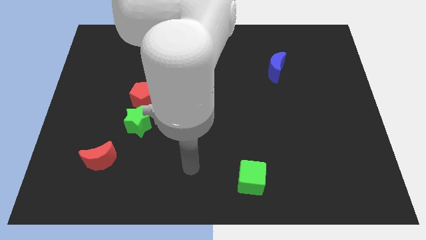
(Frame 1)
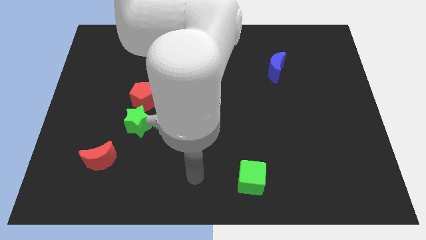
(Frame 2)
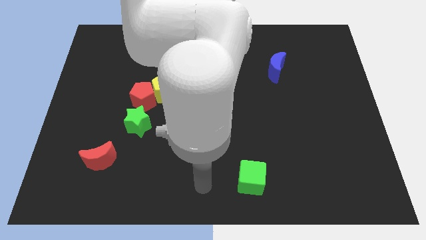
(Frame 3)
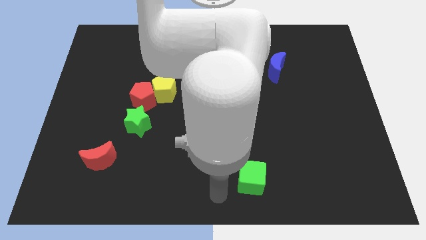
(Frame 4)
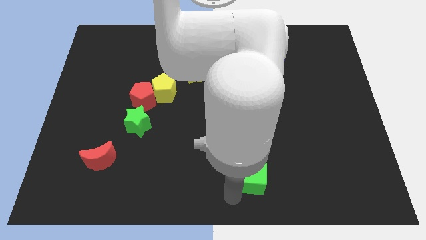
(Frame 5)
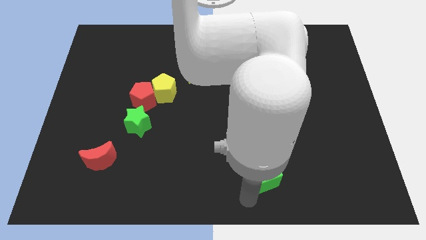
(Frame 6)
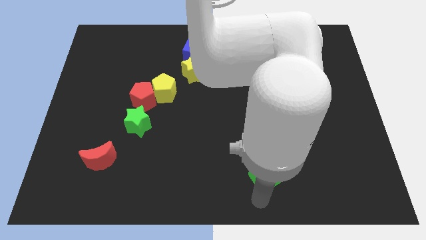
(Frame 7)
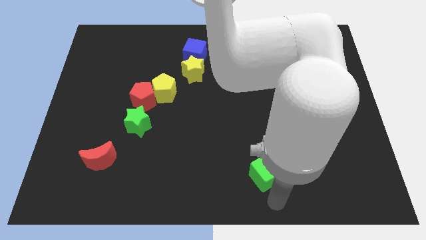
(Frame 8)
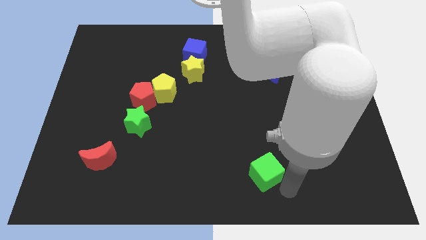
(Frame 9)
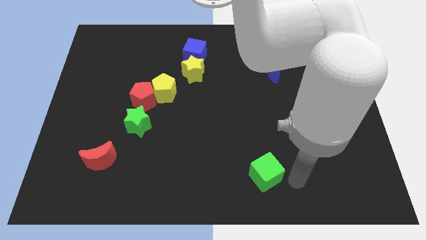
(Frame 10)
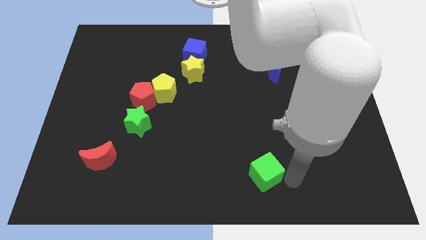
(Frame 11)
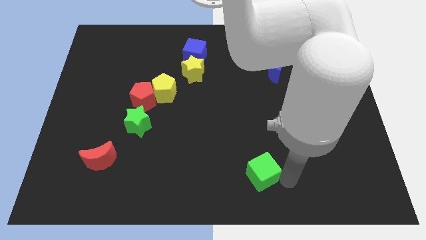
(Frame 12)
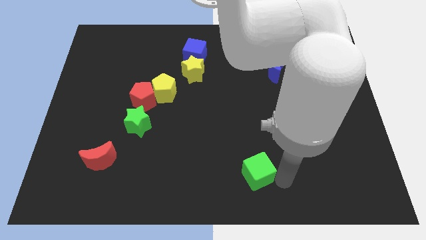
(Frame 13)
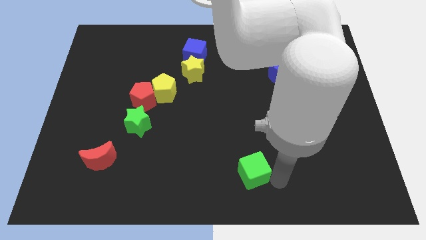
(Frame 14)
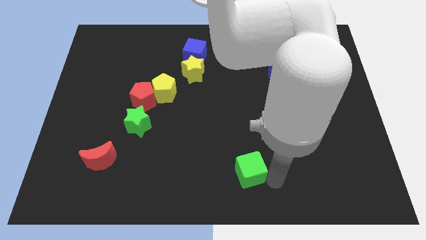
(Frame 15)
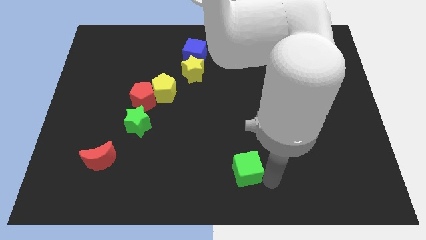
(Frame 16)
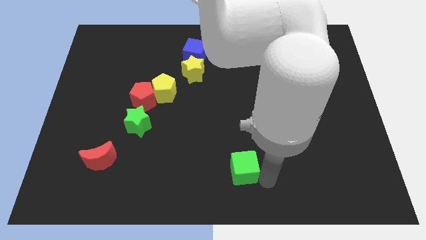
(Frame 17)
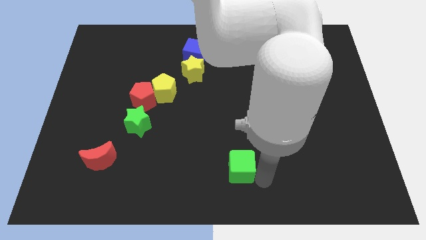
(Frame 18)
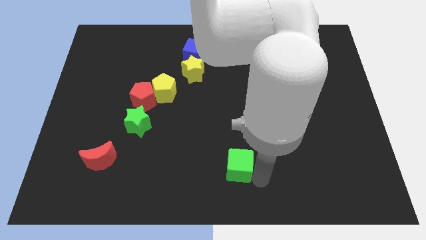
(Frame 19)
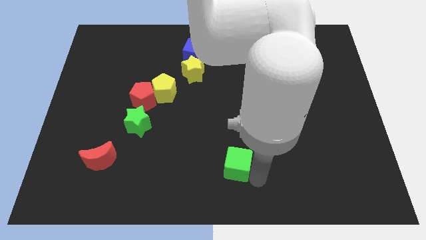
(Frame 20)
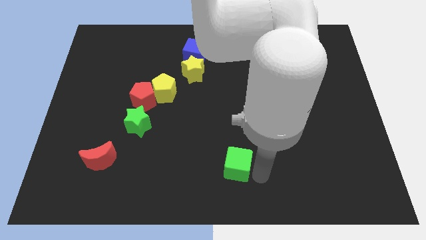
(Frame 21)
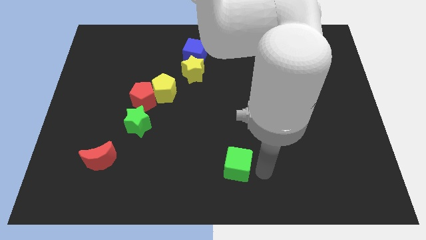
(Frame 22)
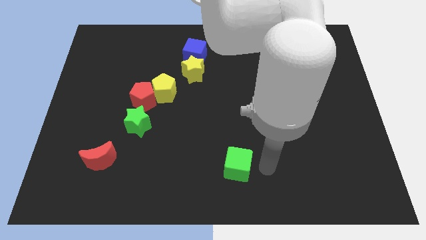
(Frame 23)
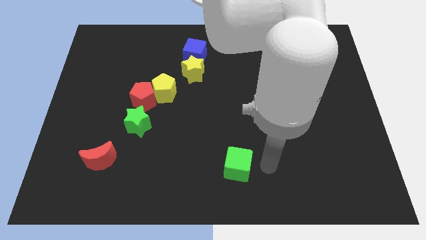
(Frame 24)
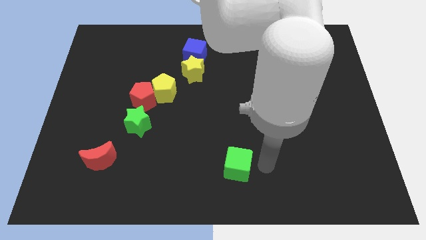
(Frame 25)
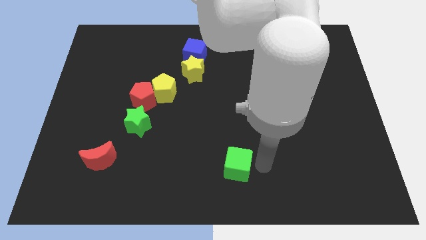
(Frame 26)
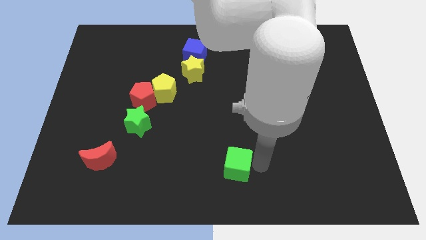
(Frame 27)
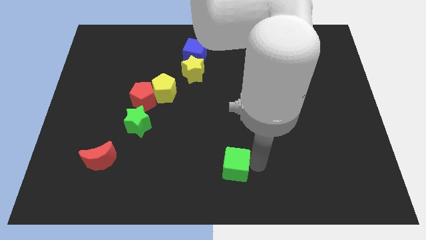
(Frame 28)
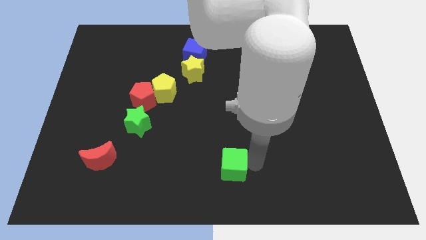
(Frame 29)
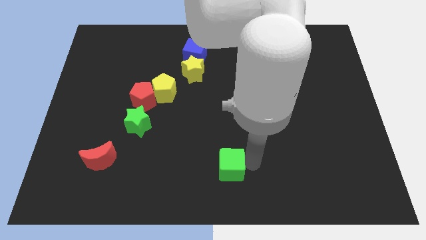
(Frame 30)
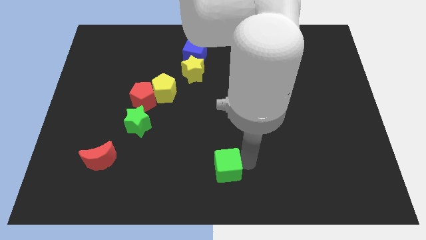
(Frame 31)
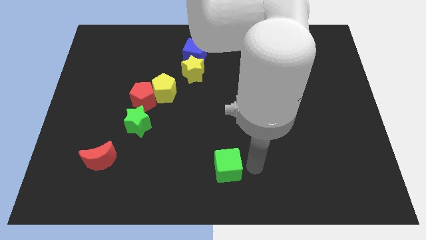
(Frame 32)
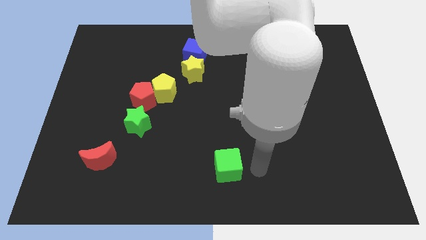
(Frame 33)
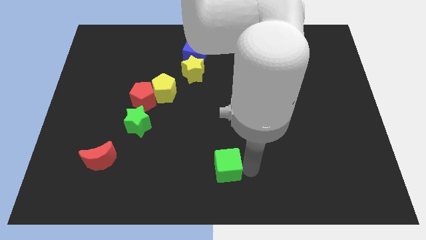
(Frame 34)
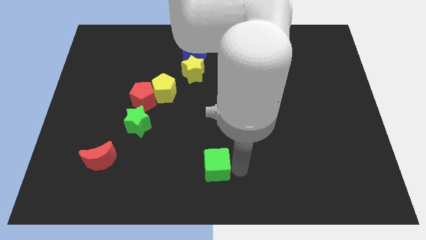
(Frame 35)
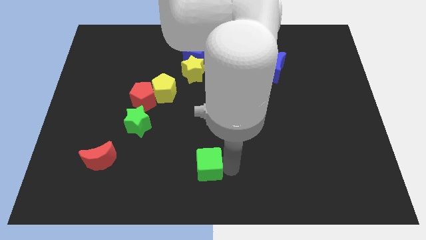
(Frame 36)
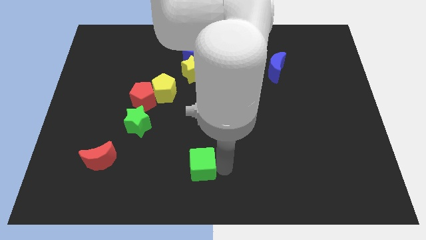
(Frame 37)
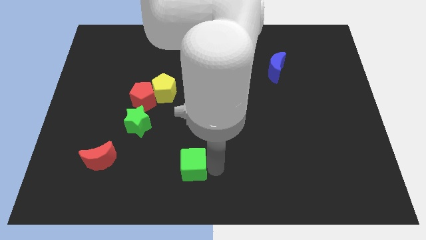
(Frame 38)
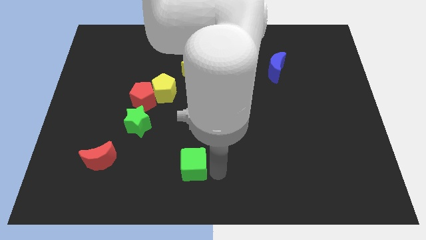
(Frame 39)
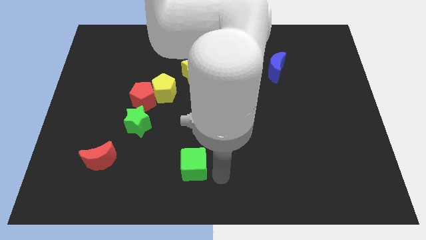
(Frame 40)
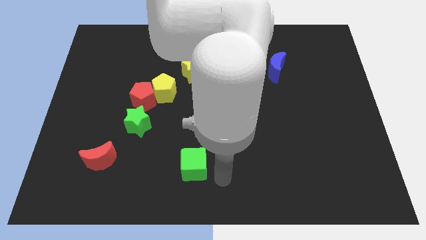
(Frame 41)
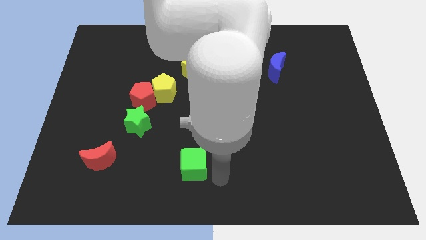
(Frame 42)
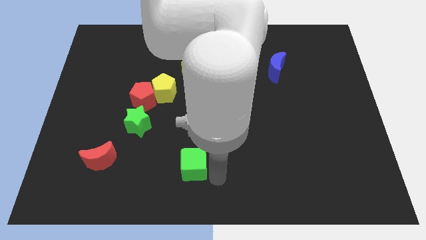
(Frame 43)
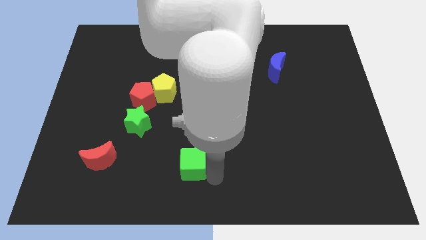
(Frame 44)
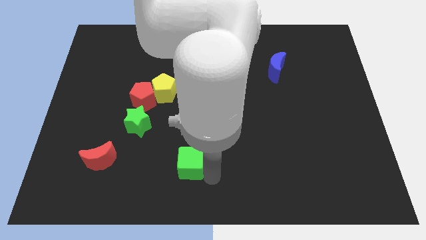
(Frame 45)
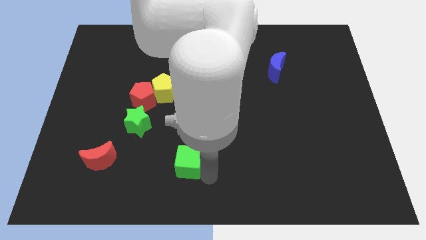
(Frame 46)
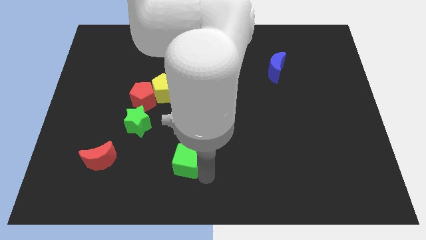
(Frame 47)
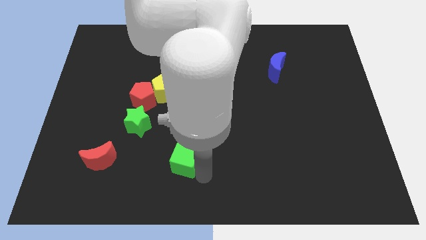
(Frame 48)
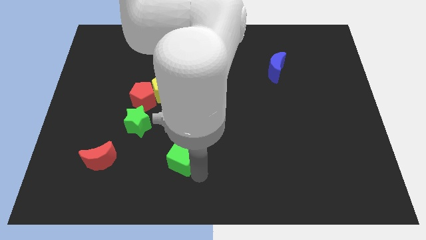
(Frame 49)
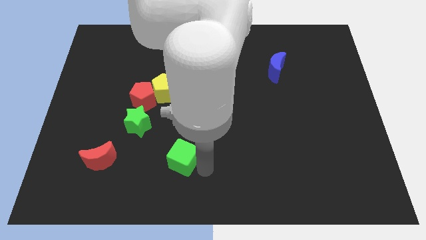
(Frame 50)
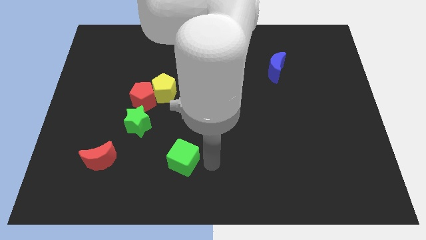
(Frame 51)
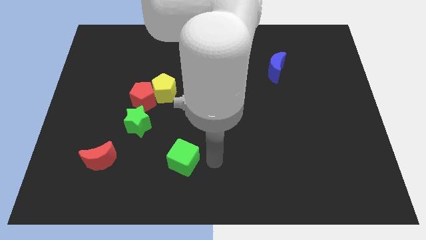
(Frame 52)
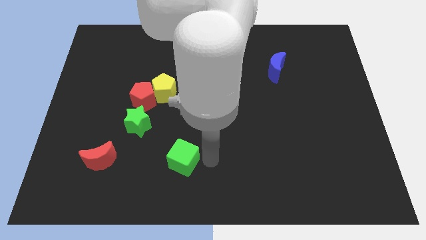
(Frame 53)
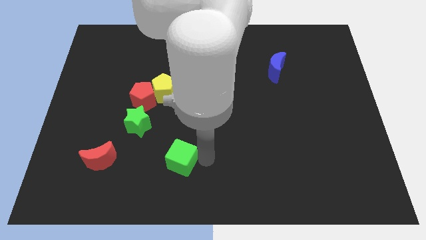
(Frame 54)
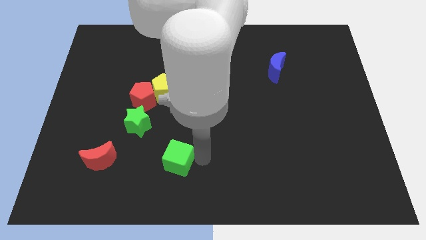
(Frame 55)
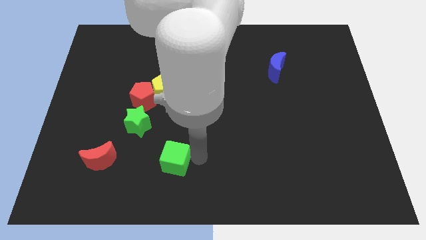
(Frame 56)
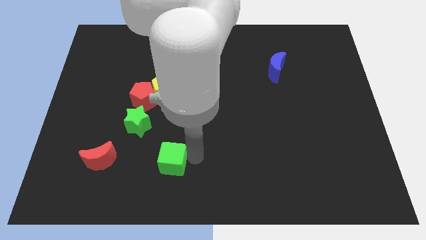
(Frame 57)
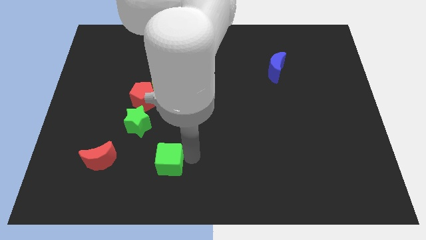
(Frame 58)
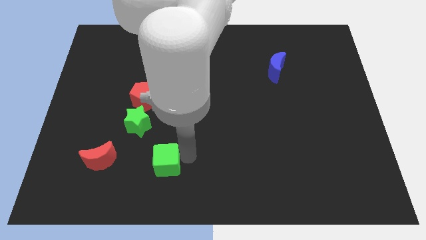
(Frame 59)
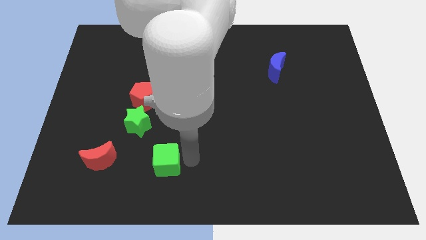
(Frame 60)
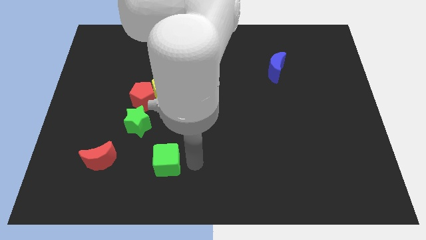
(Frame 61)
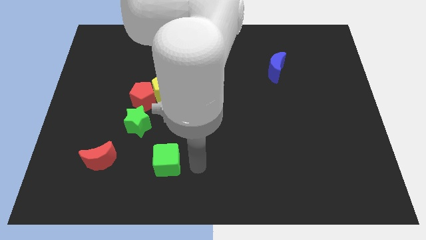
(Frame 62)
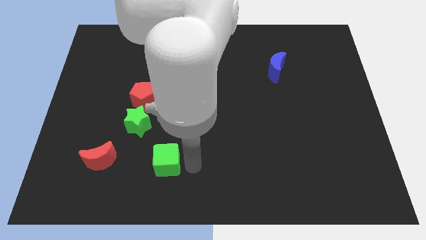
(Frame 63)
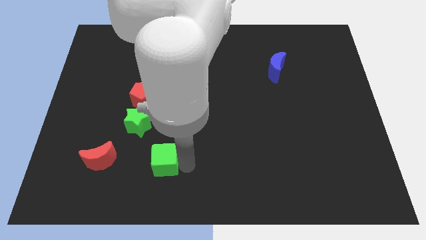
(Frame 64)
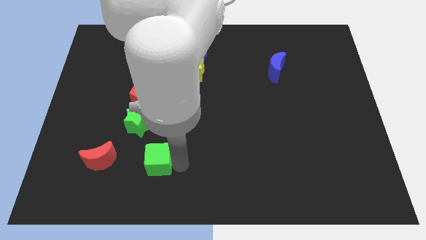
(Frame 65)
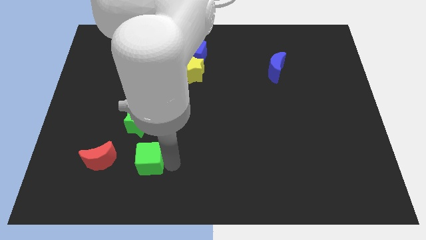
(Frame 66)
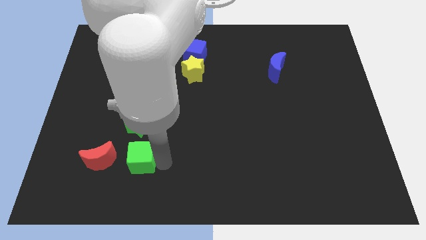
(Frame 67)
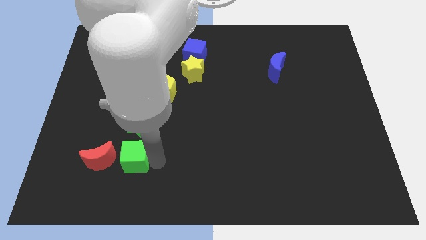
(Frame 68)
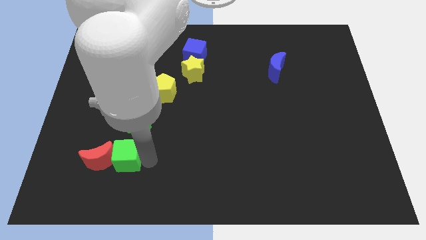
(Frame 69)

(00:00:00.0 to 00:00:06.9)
put the green cube close to the red moon

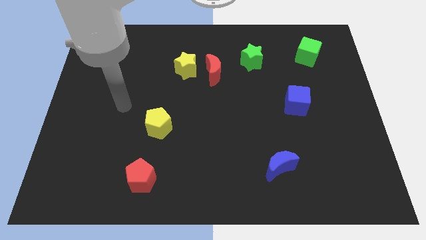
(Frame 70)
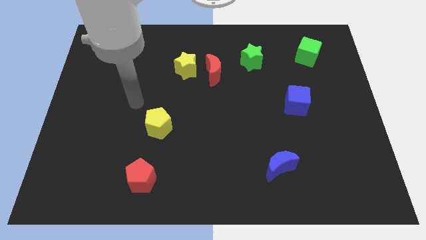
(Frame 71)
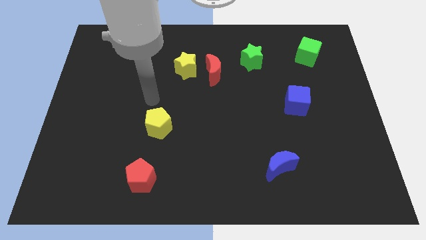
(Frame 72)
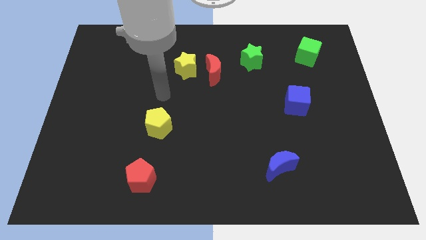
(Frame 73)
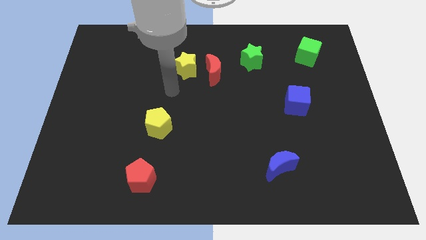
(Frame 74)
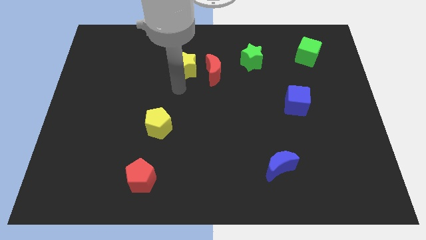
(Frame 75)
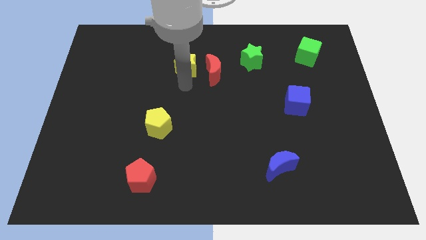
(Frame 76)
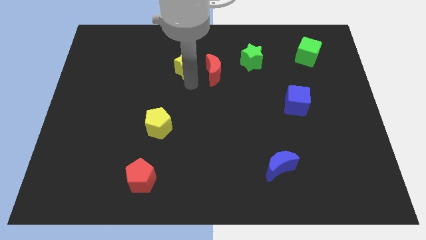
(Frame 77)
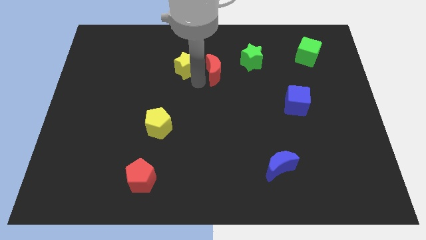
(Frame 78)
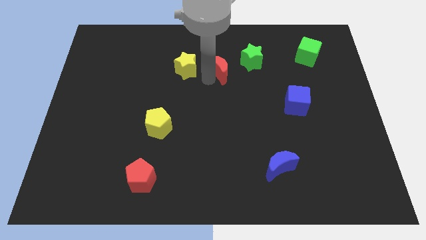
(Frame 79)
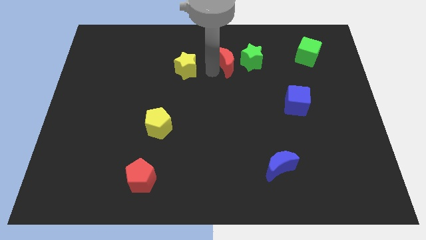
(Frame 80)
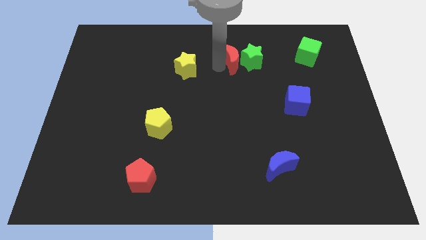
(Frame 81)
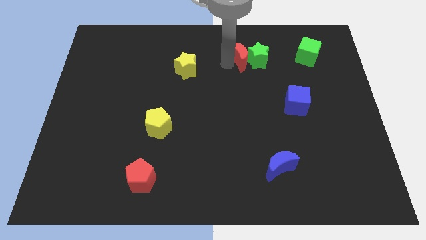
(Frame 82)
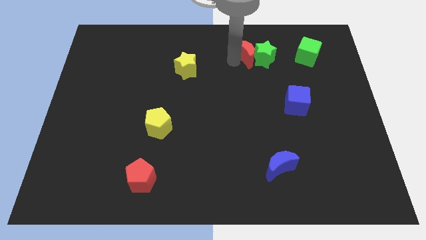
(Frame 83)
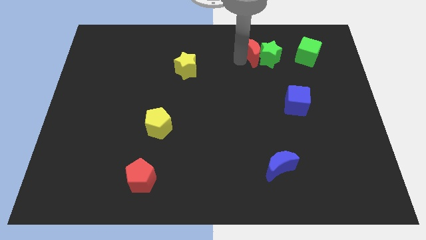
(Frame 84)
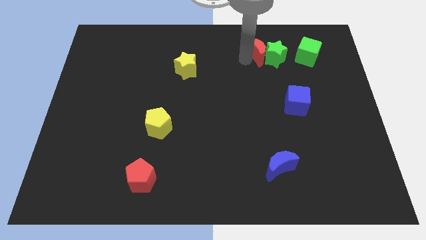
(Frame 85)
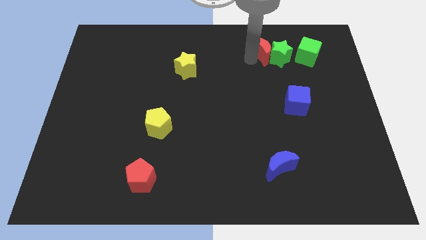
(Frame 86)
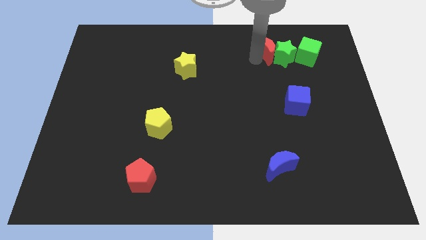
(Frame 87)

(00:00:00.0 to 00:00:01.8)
push the green star towards the green cube
